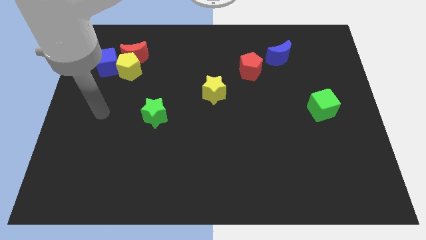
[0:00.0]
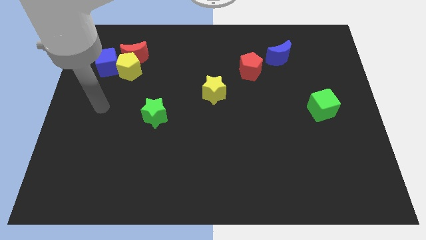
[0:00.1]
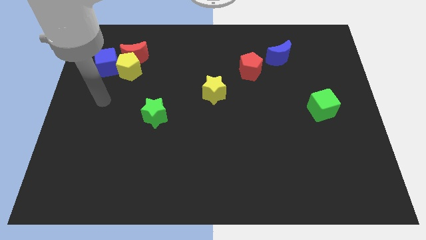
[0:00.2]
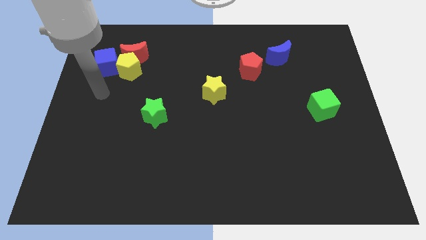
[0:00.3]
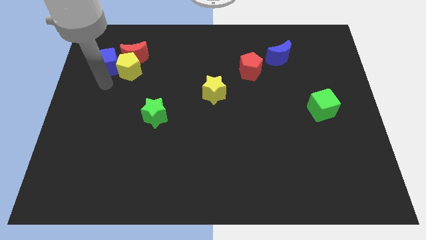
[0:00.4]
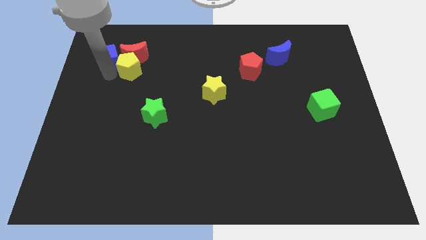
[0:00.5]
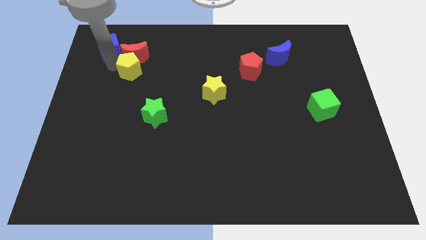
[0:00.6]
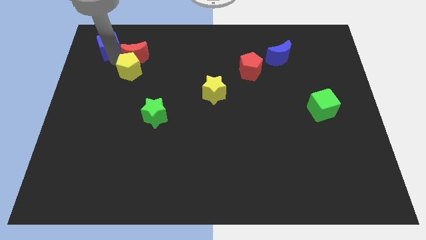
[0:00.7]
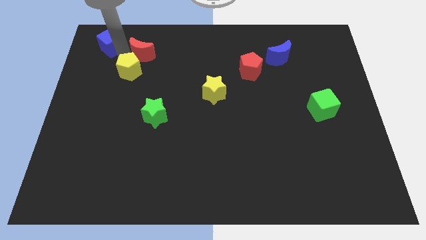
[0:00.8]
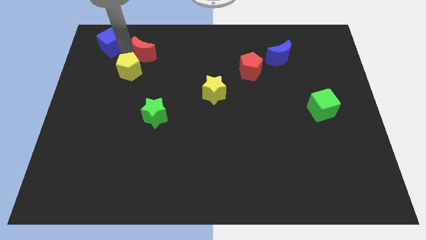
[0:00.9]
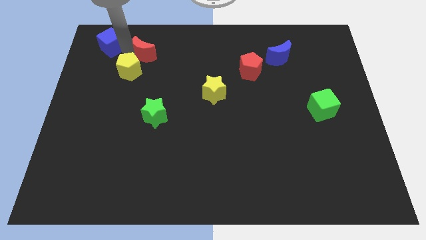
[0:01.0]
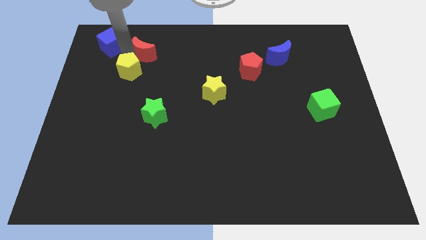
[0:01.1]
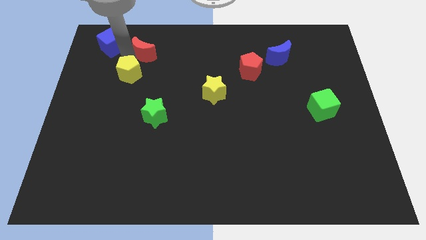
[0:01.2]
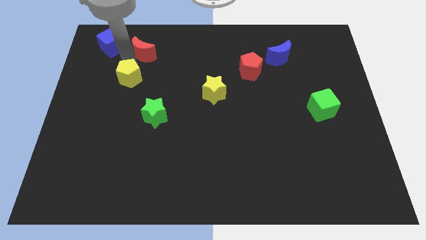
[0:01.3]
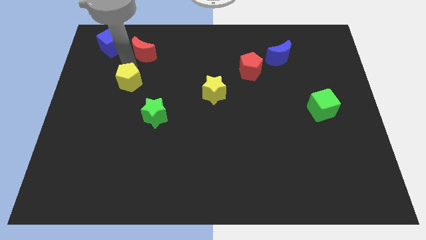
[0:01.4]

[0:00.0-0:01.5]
pull the yellow pentagon apart from the red moon and blue cube

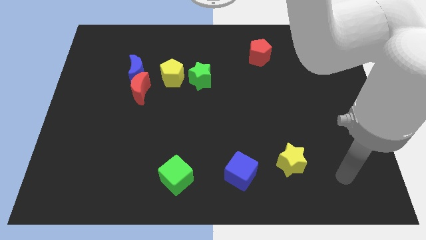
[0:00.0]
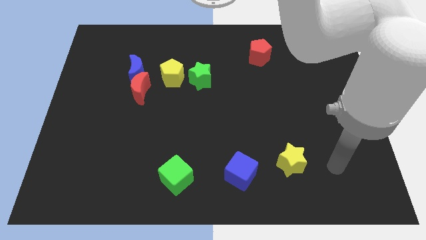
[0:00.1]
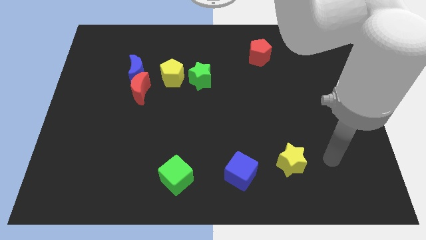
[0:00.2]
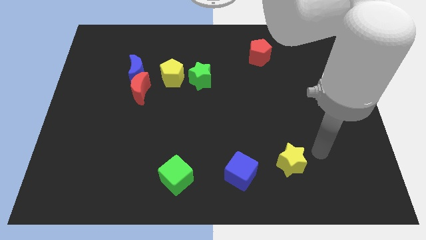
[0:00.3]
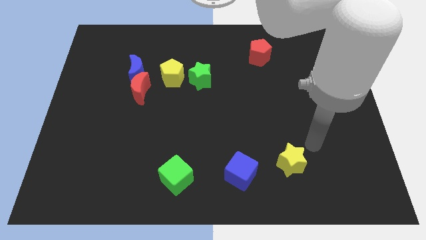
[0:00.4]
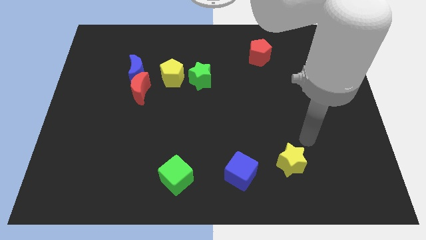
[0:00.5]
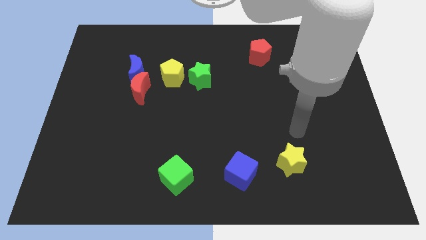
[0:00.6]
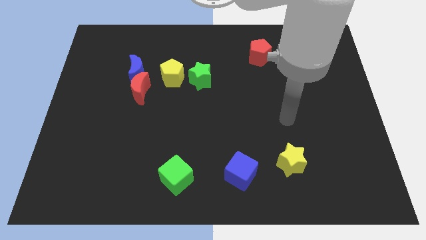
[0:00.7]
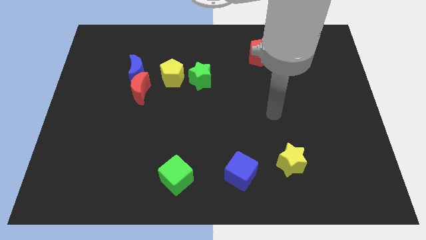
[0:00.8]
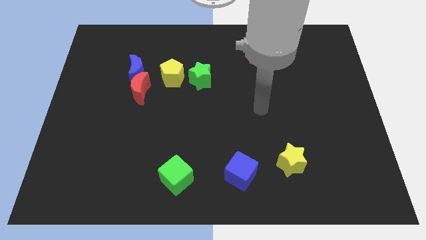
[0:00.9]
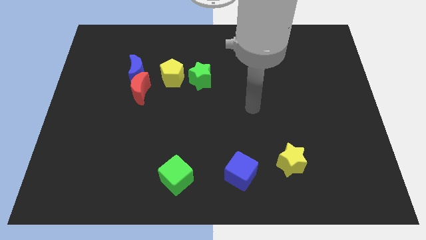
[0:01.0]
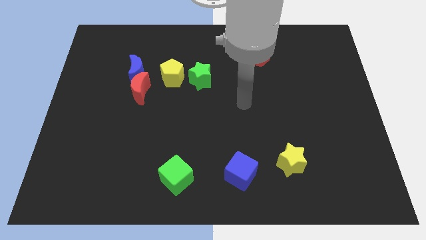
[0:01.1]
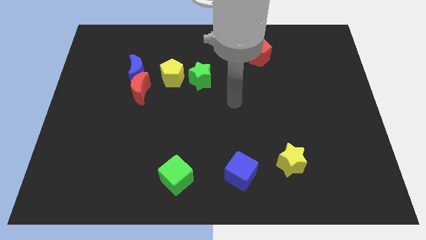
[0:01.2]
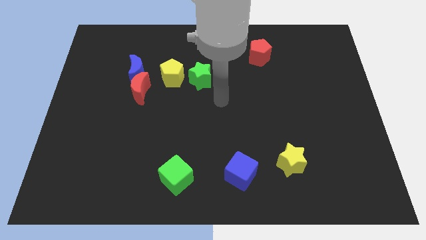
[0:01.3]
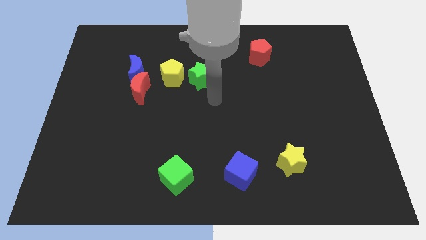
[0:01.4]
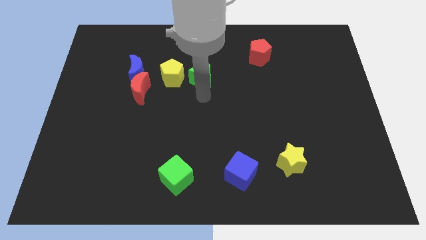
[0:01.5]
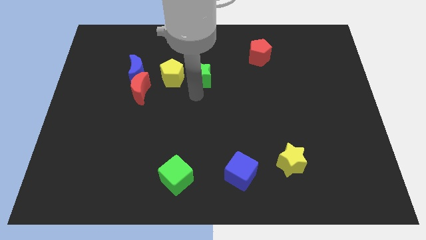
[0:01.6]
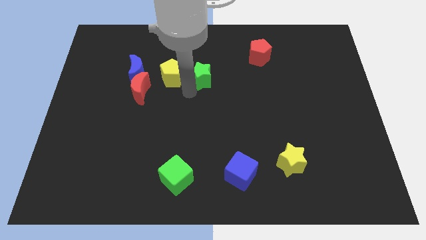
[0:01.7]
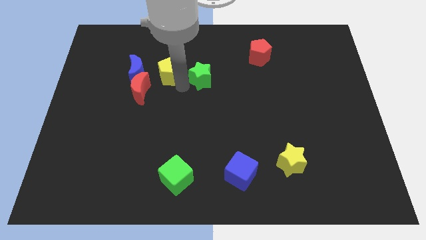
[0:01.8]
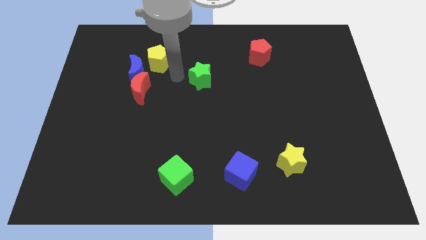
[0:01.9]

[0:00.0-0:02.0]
separate the green star from the yellow pentagon

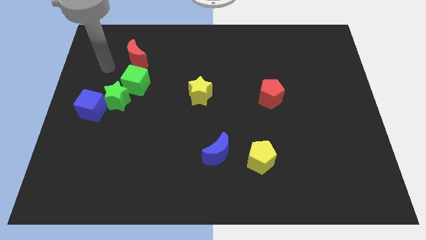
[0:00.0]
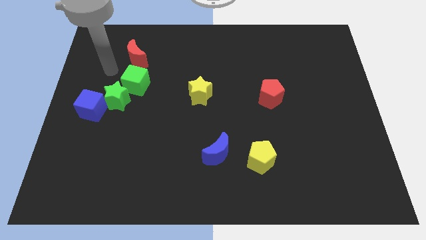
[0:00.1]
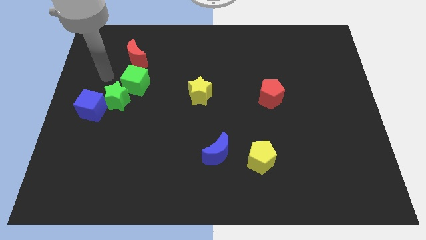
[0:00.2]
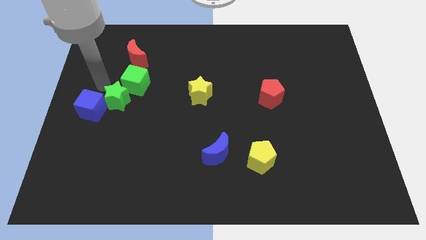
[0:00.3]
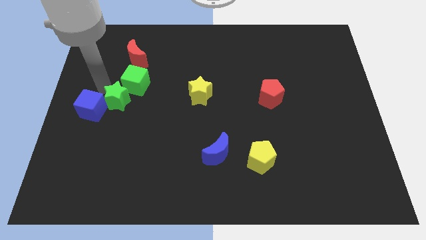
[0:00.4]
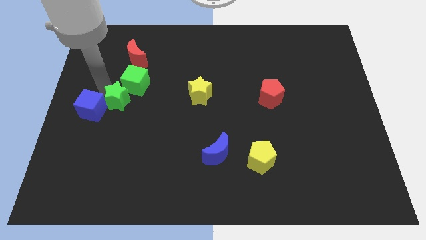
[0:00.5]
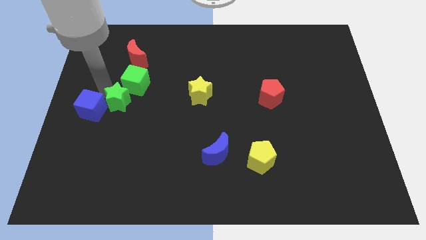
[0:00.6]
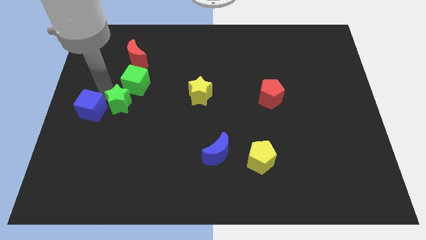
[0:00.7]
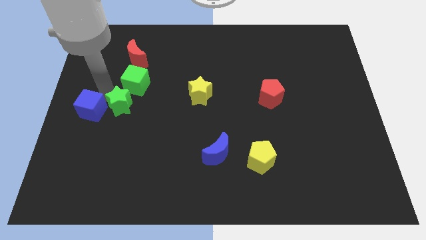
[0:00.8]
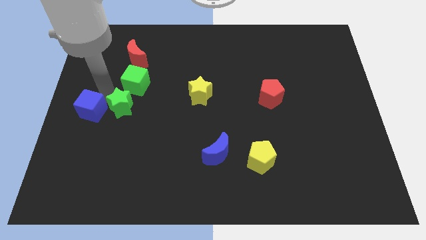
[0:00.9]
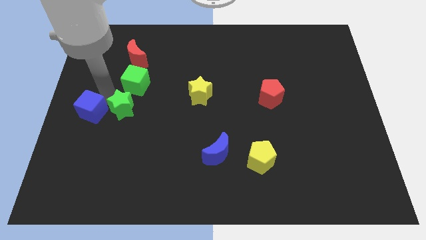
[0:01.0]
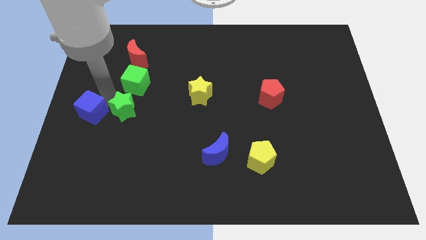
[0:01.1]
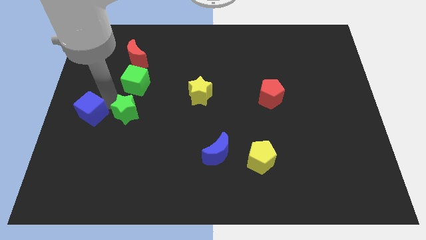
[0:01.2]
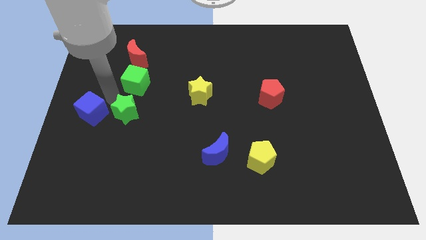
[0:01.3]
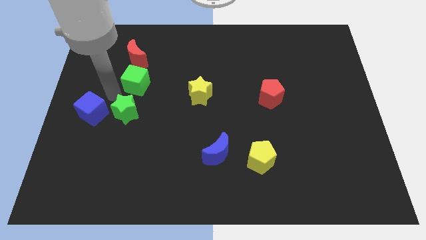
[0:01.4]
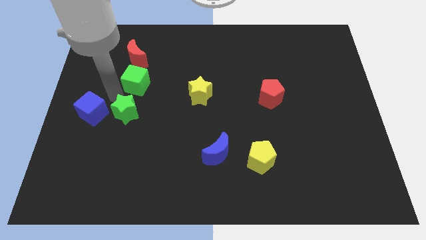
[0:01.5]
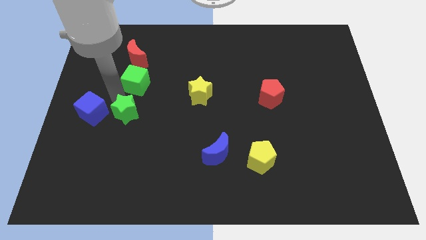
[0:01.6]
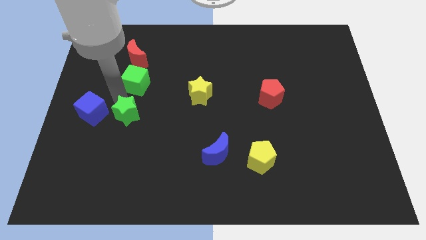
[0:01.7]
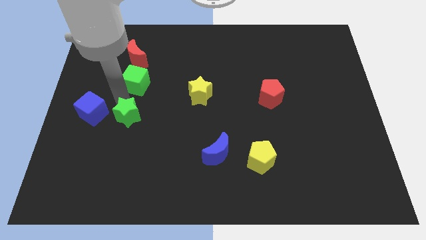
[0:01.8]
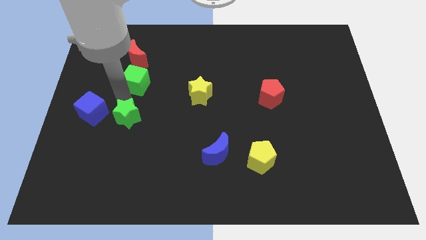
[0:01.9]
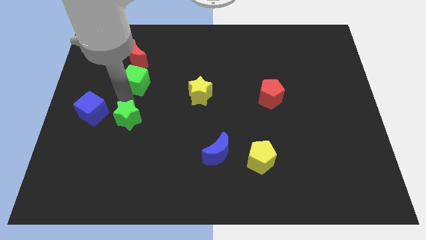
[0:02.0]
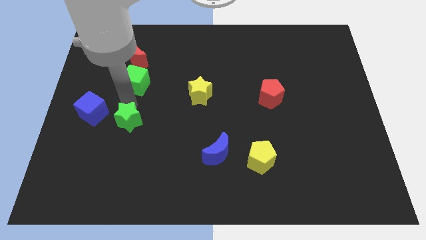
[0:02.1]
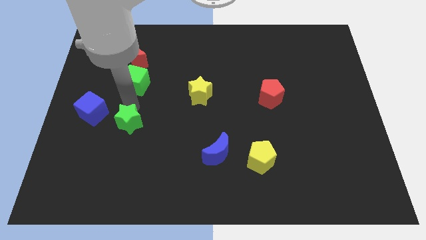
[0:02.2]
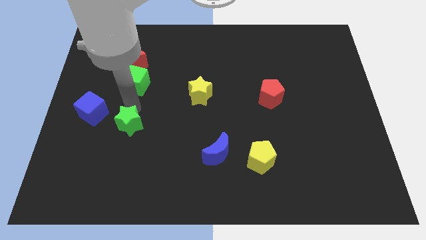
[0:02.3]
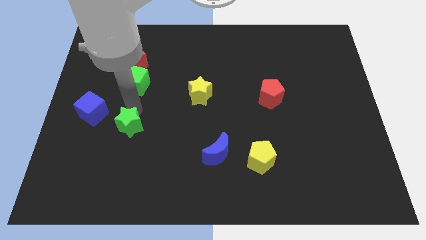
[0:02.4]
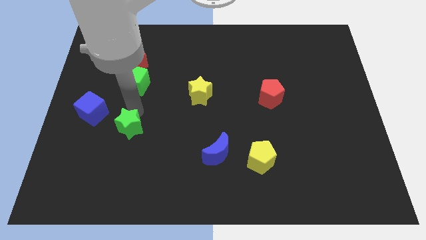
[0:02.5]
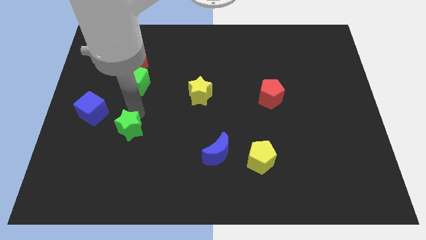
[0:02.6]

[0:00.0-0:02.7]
separate the green star from the green cube and blue cube

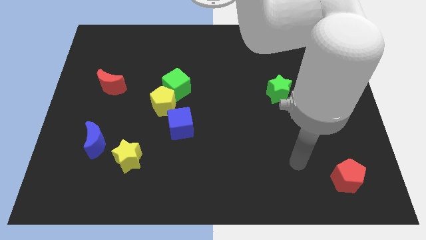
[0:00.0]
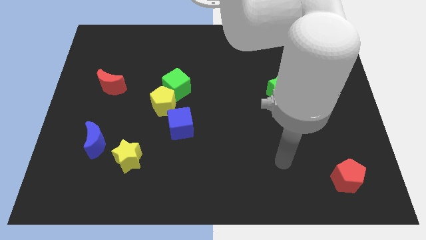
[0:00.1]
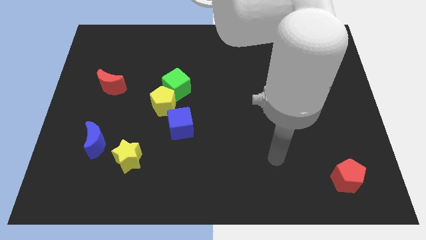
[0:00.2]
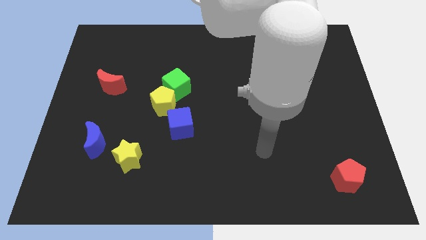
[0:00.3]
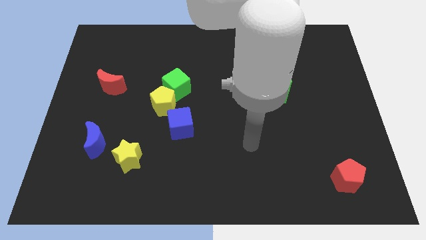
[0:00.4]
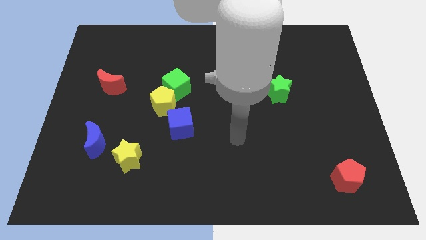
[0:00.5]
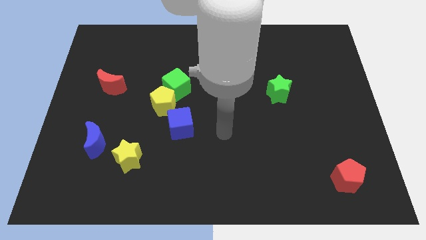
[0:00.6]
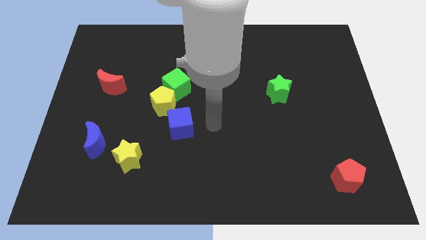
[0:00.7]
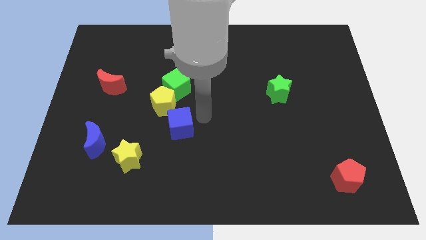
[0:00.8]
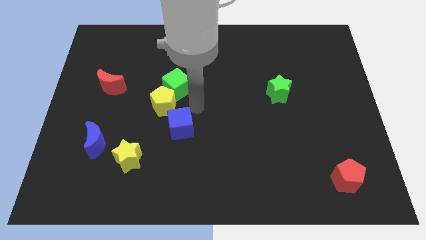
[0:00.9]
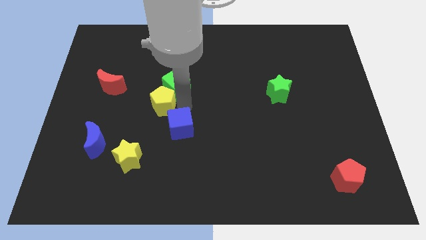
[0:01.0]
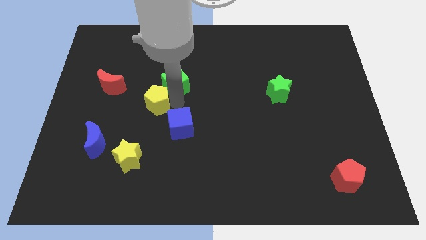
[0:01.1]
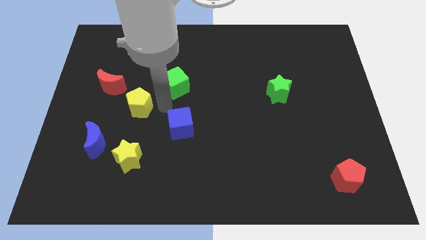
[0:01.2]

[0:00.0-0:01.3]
pull the green cube apart from the yellow pentagon

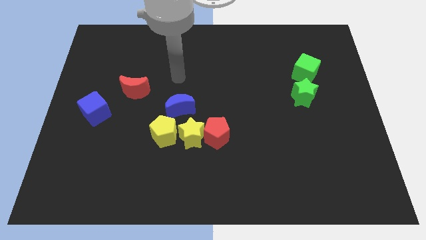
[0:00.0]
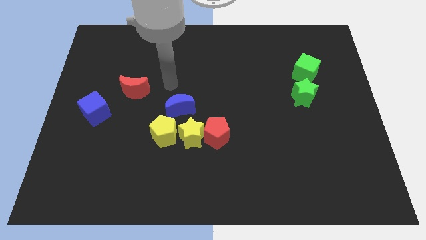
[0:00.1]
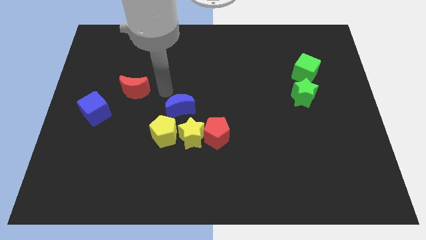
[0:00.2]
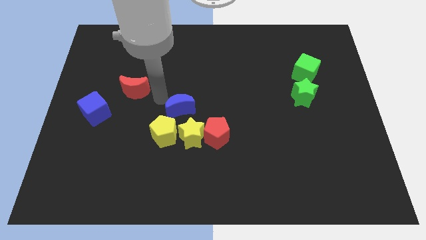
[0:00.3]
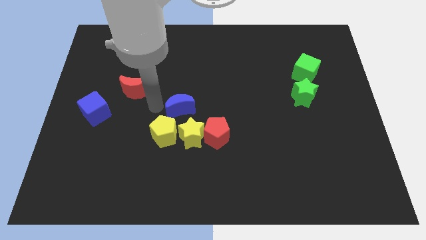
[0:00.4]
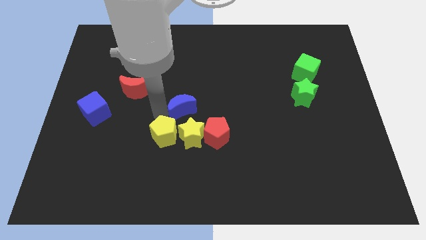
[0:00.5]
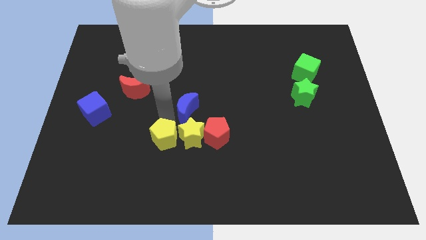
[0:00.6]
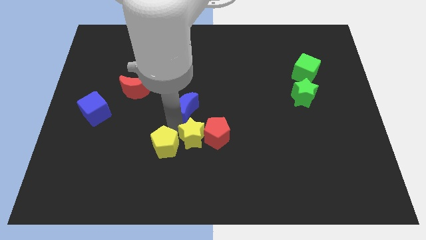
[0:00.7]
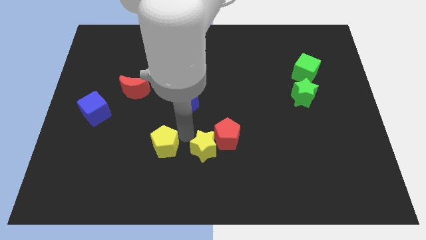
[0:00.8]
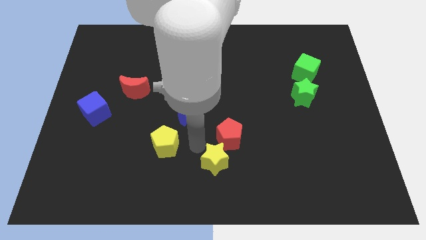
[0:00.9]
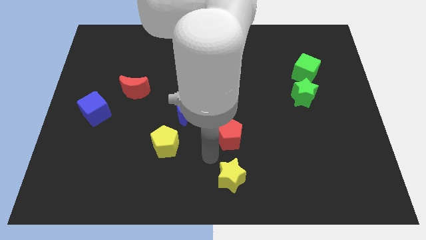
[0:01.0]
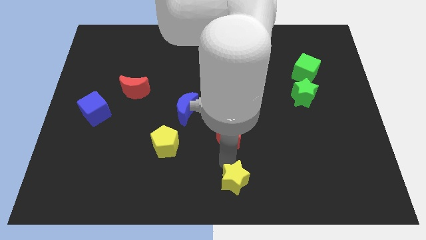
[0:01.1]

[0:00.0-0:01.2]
move the red pentagon away from the yellow star

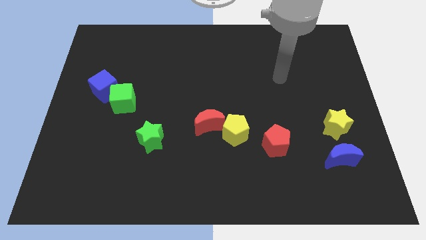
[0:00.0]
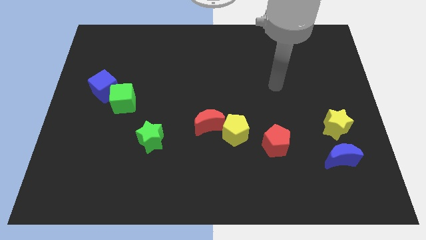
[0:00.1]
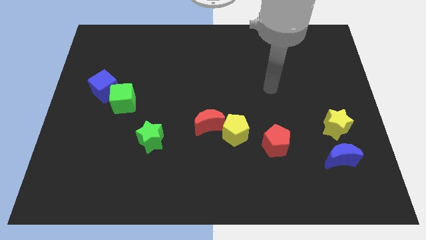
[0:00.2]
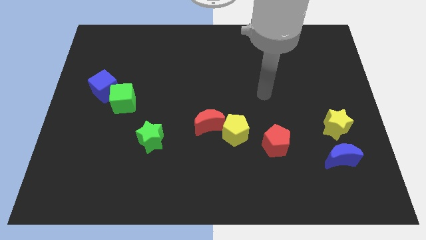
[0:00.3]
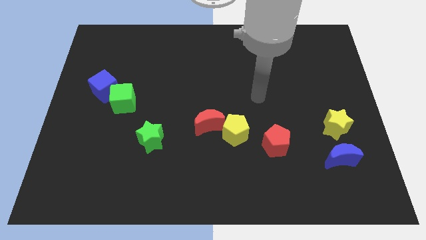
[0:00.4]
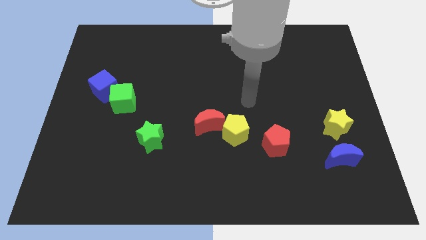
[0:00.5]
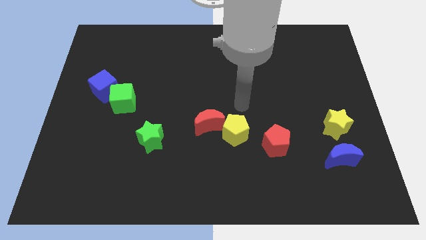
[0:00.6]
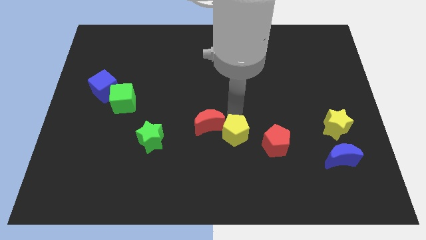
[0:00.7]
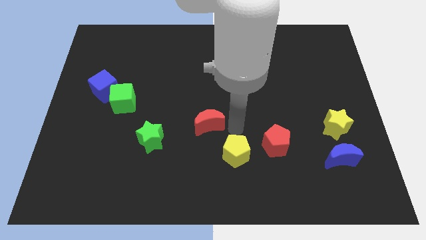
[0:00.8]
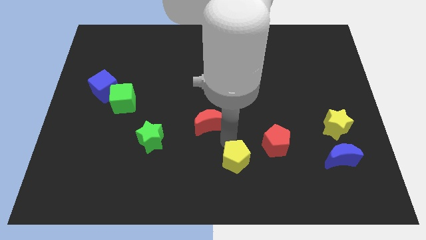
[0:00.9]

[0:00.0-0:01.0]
separate the red moon from the yellow pentagon
